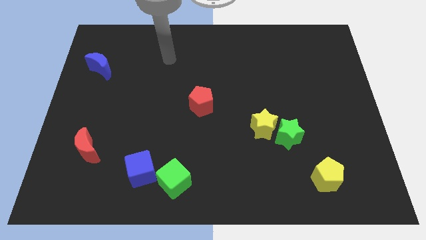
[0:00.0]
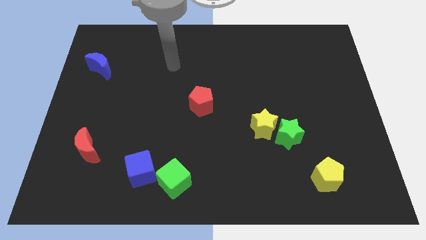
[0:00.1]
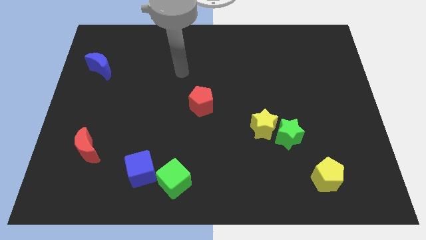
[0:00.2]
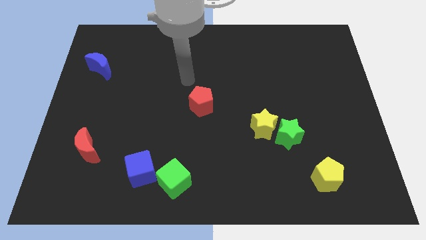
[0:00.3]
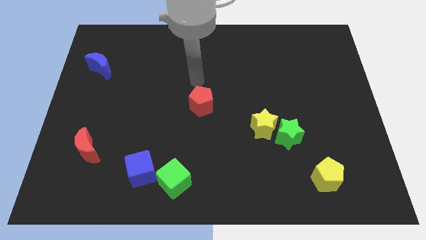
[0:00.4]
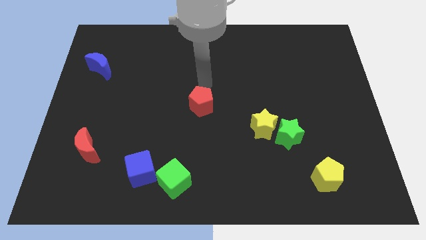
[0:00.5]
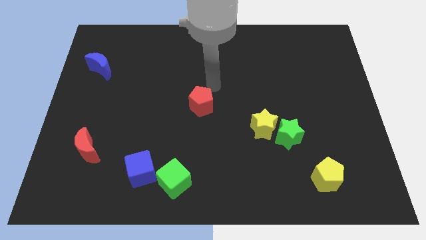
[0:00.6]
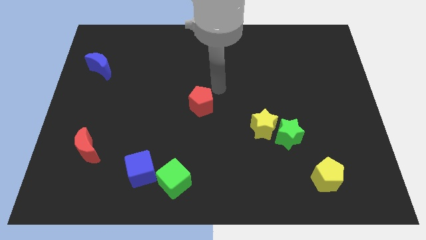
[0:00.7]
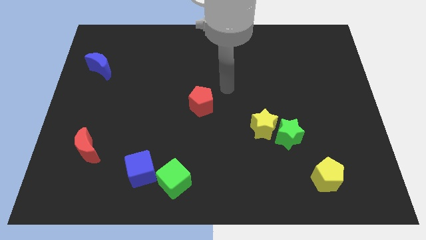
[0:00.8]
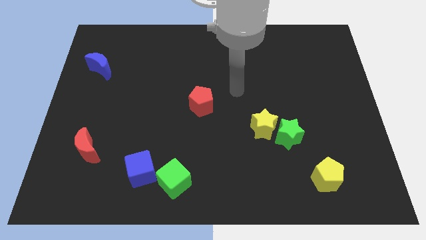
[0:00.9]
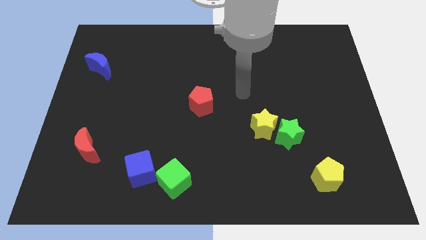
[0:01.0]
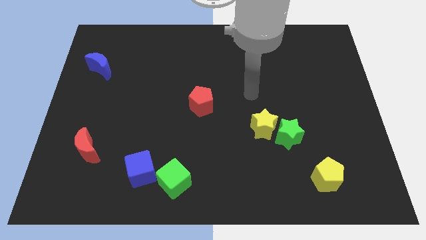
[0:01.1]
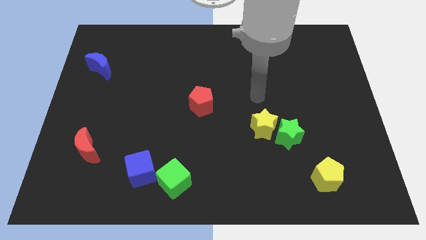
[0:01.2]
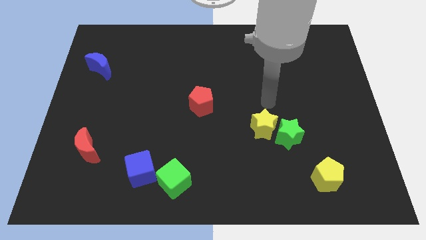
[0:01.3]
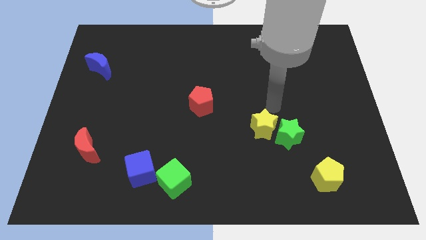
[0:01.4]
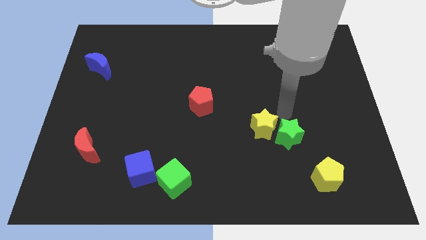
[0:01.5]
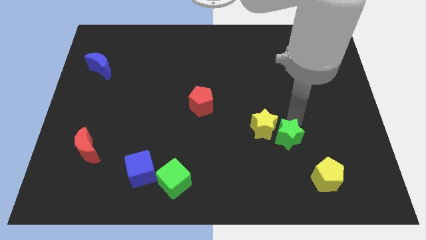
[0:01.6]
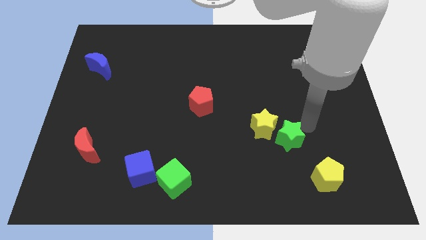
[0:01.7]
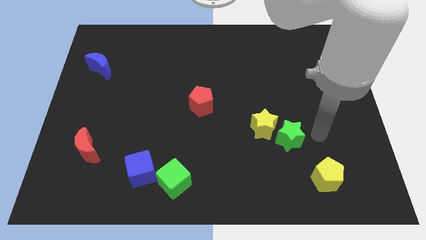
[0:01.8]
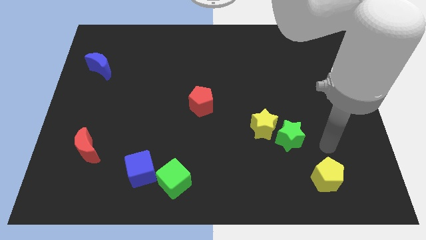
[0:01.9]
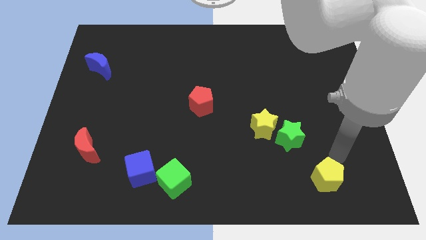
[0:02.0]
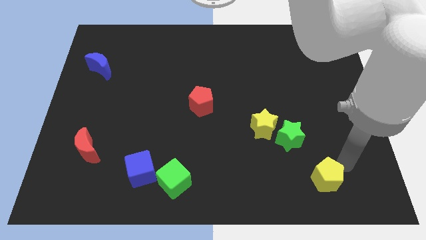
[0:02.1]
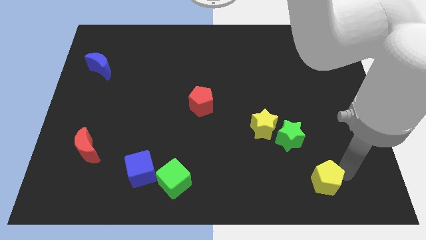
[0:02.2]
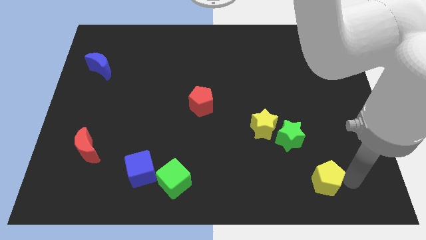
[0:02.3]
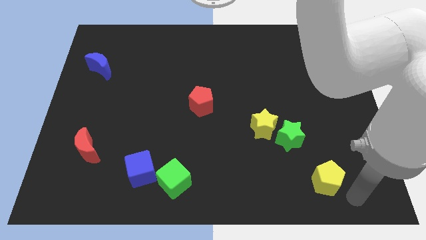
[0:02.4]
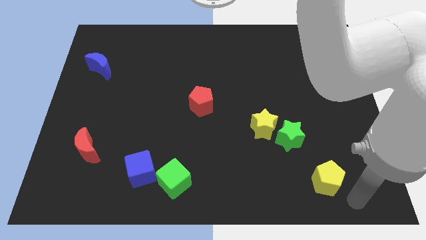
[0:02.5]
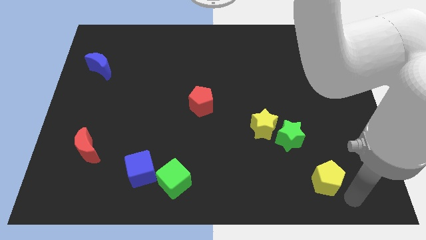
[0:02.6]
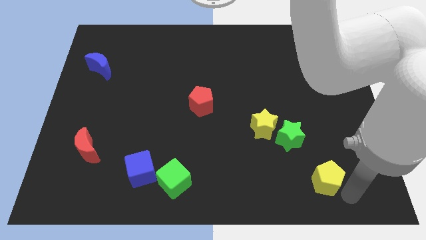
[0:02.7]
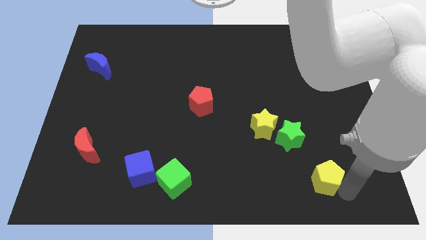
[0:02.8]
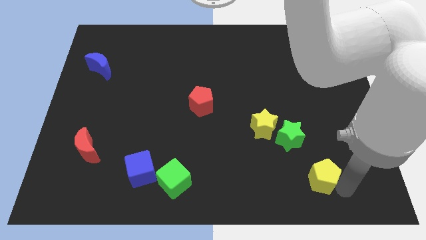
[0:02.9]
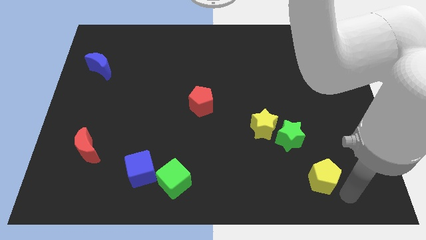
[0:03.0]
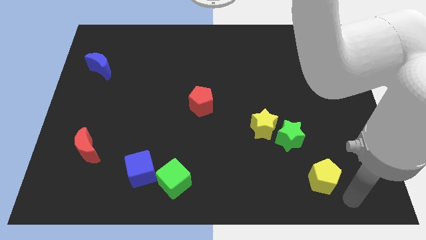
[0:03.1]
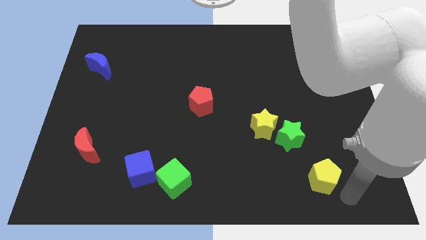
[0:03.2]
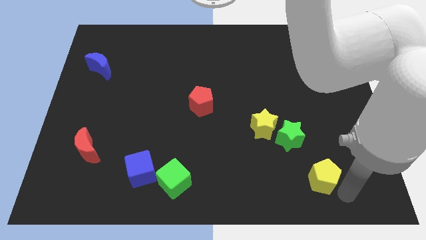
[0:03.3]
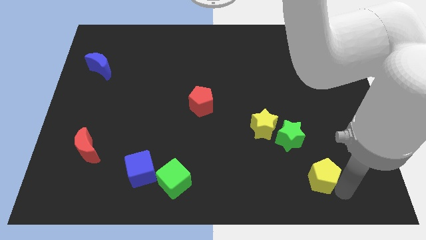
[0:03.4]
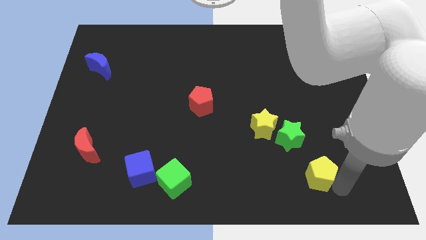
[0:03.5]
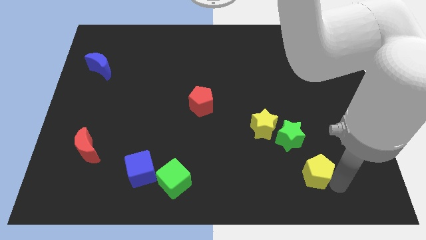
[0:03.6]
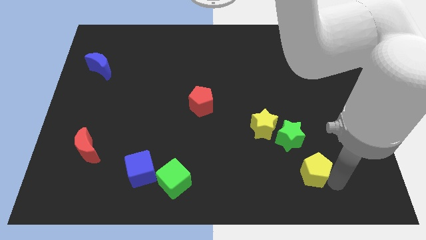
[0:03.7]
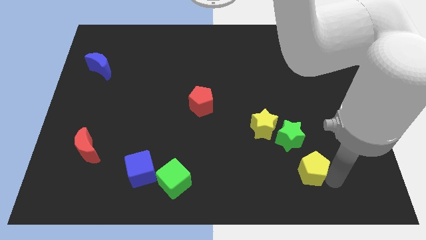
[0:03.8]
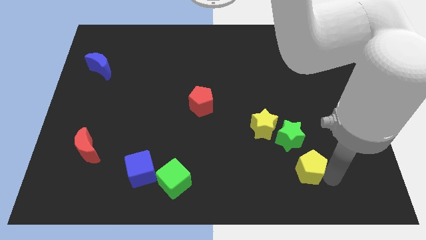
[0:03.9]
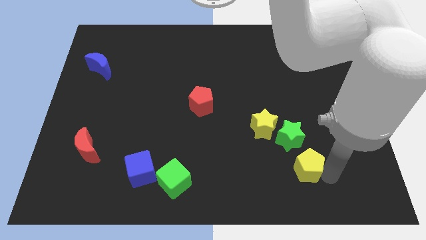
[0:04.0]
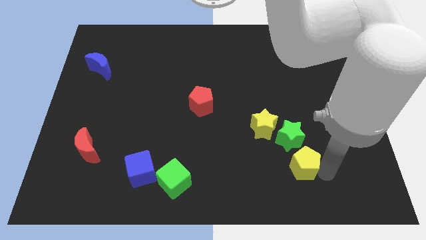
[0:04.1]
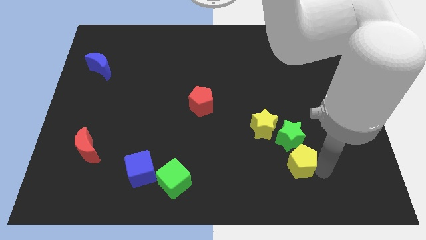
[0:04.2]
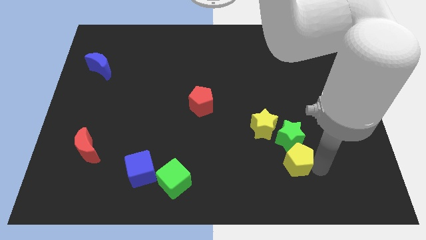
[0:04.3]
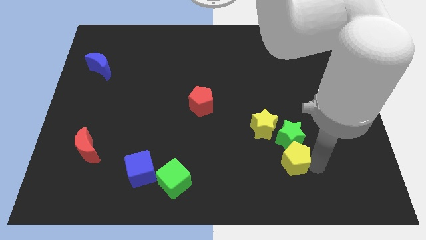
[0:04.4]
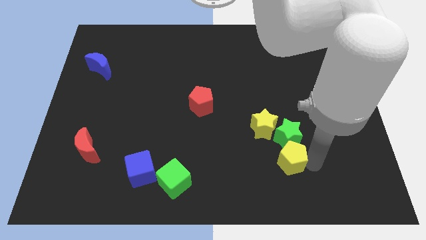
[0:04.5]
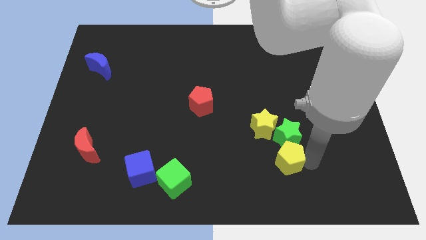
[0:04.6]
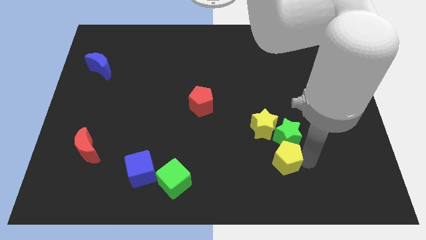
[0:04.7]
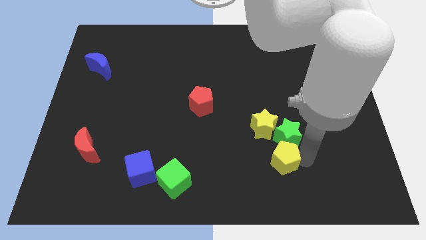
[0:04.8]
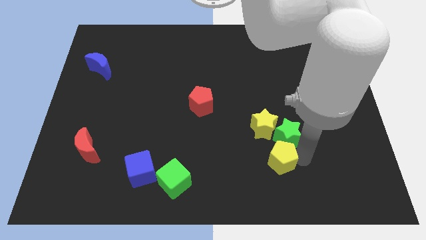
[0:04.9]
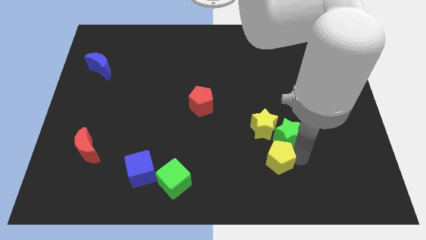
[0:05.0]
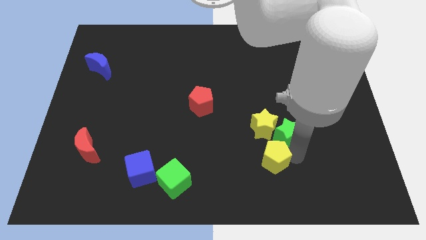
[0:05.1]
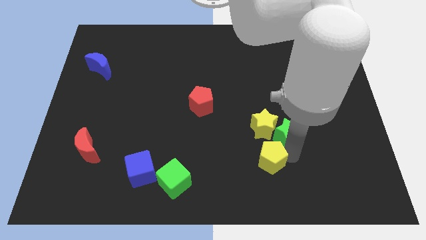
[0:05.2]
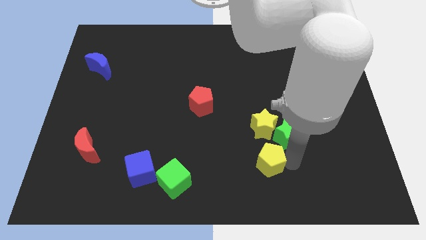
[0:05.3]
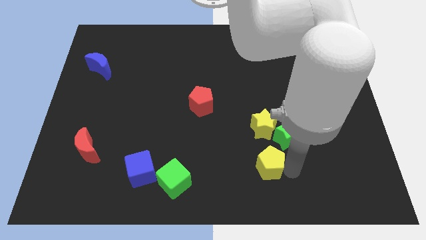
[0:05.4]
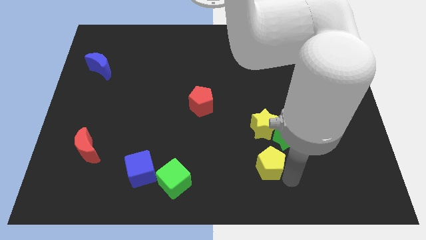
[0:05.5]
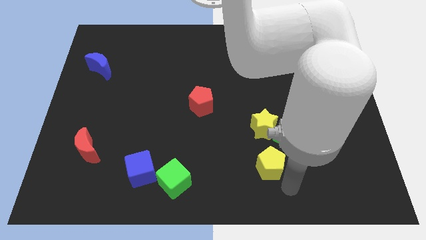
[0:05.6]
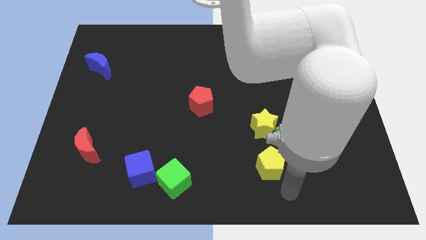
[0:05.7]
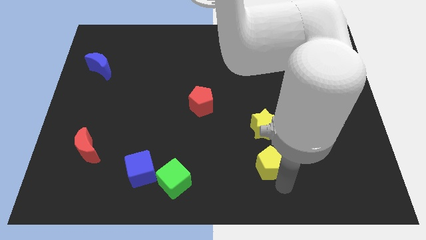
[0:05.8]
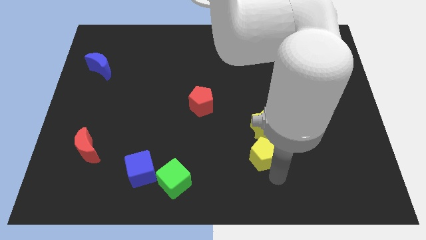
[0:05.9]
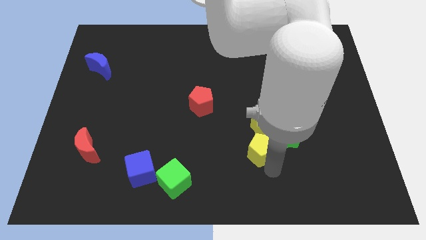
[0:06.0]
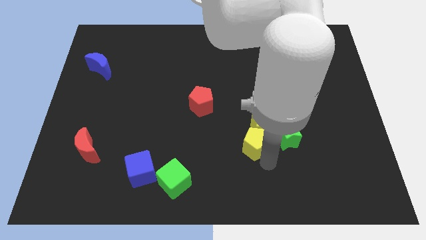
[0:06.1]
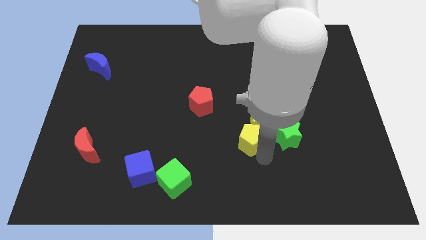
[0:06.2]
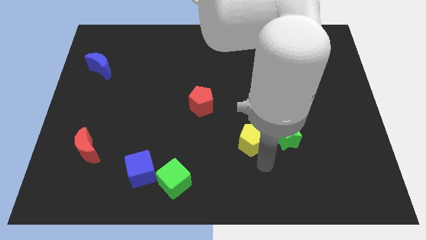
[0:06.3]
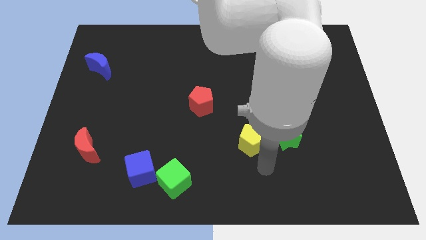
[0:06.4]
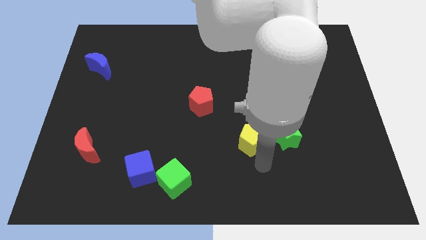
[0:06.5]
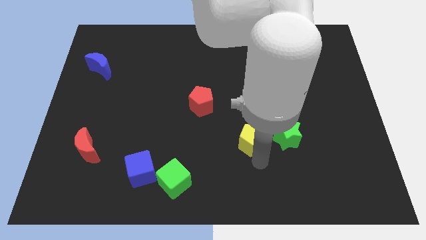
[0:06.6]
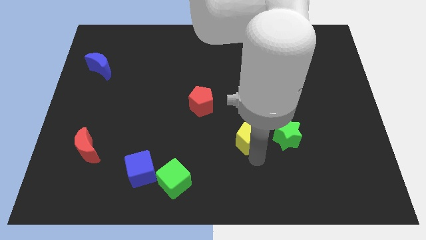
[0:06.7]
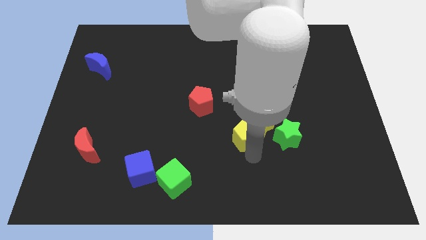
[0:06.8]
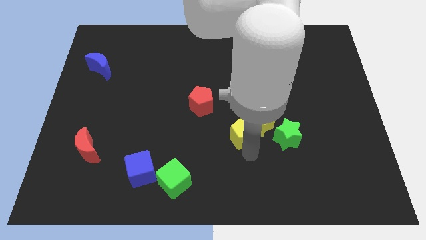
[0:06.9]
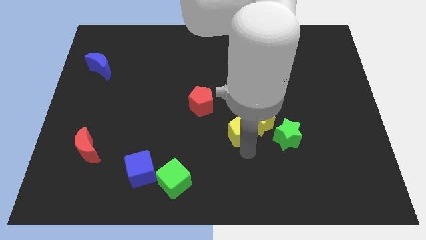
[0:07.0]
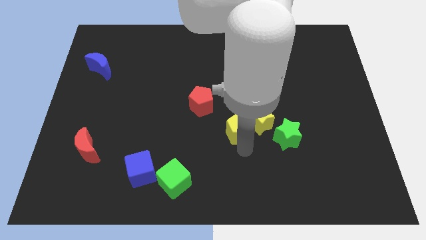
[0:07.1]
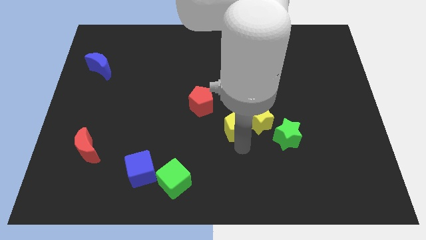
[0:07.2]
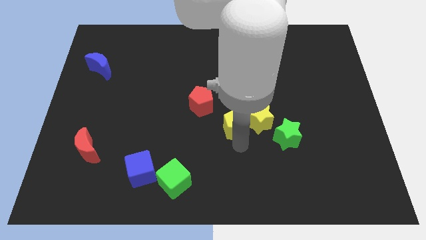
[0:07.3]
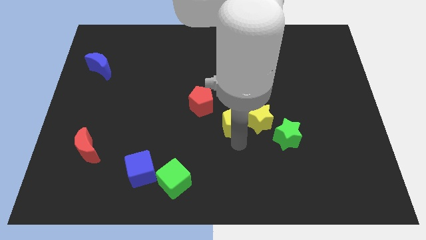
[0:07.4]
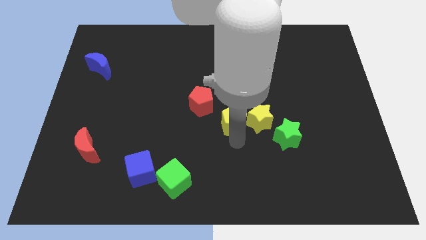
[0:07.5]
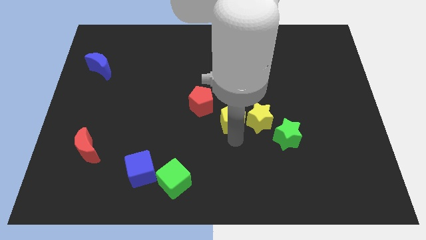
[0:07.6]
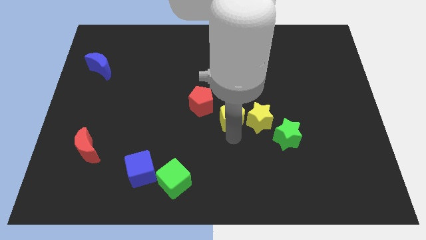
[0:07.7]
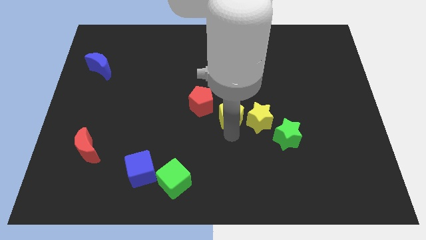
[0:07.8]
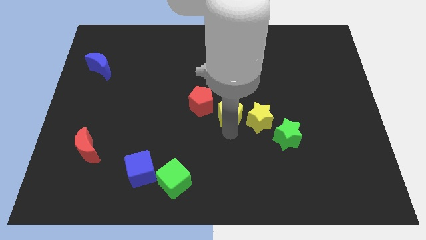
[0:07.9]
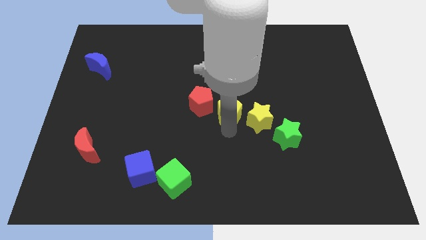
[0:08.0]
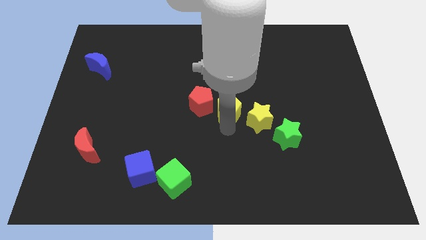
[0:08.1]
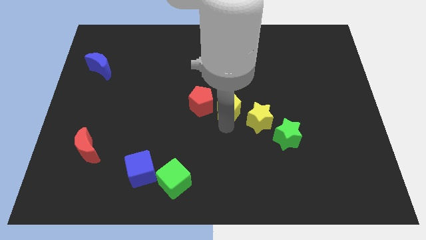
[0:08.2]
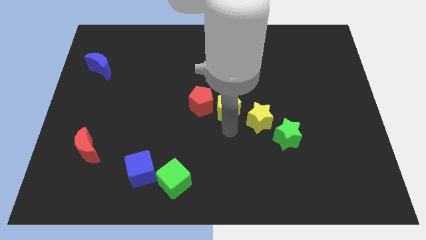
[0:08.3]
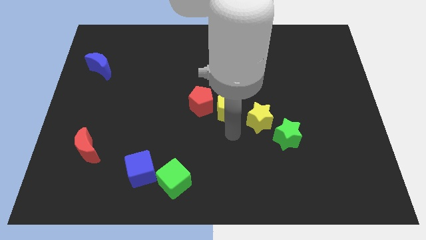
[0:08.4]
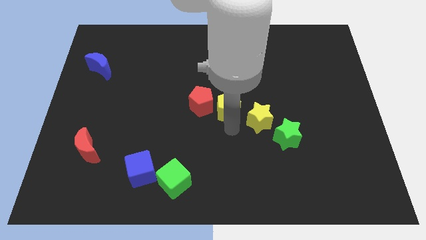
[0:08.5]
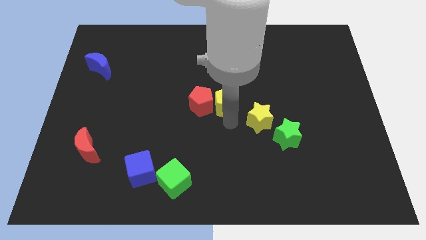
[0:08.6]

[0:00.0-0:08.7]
move the yellow pentagon diagonally up and to the right of the red pentagon
